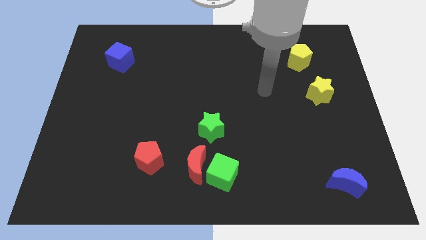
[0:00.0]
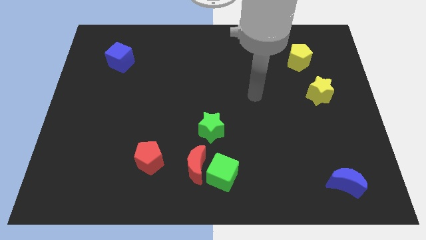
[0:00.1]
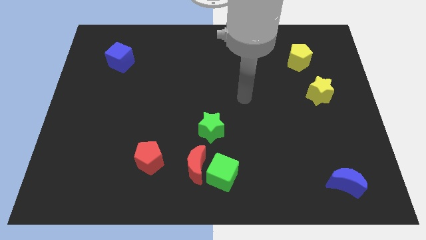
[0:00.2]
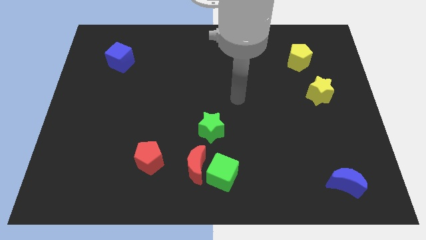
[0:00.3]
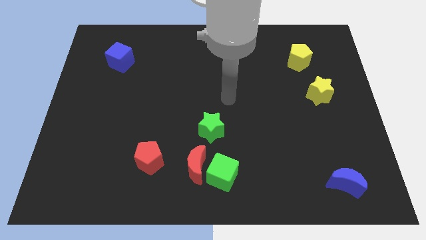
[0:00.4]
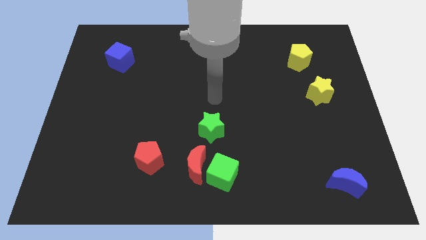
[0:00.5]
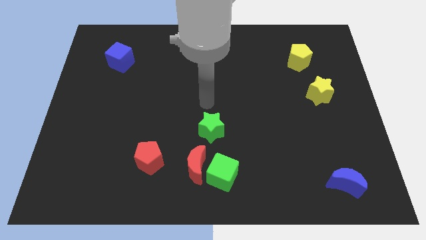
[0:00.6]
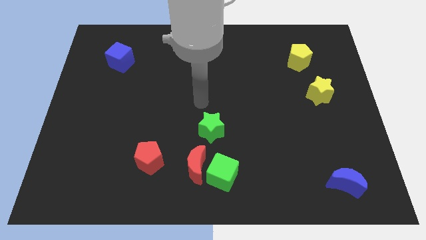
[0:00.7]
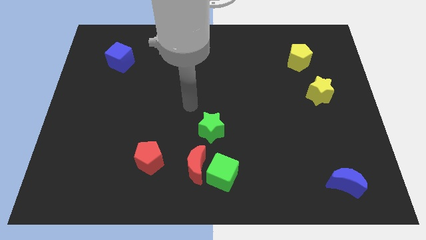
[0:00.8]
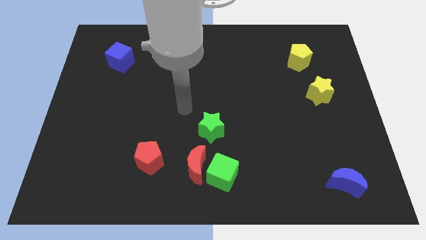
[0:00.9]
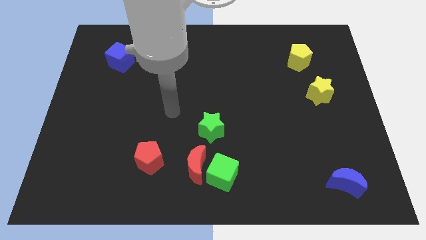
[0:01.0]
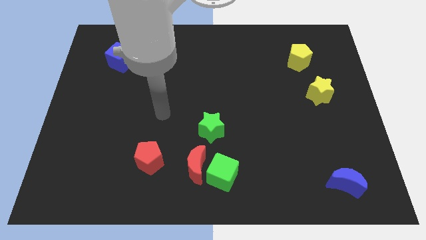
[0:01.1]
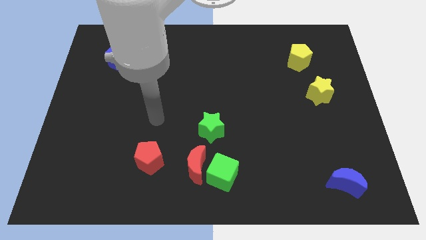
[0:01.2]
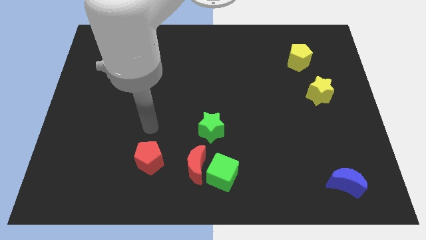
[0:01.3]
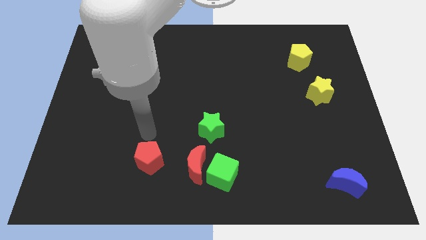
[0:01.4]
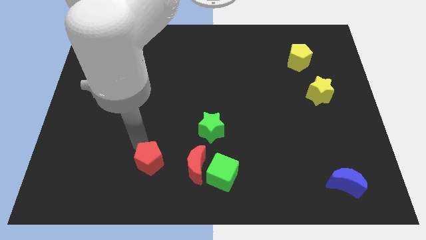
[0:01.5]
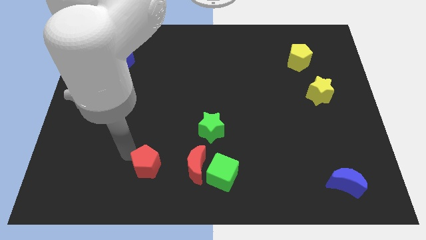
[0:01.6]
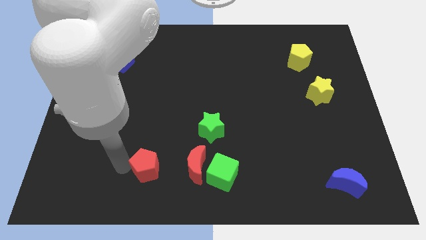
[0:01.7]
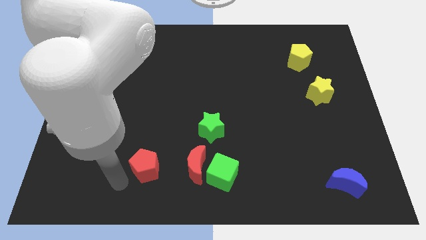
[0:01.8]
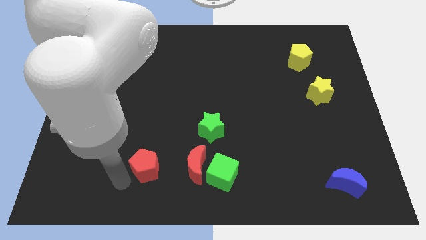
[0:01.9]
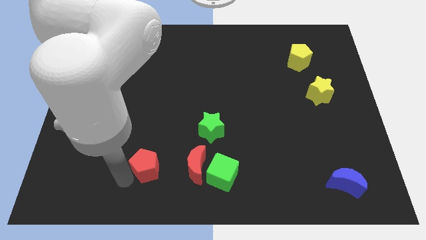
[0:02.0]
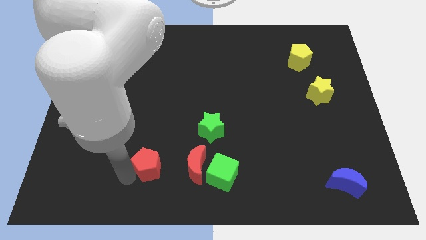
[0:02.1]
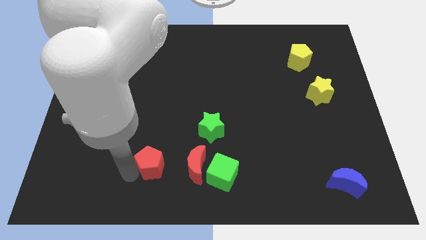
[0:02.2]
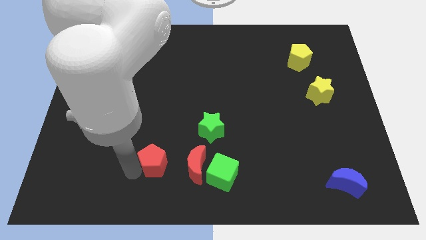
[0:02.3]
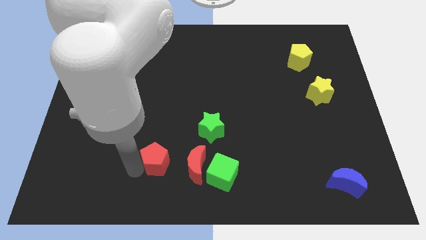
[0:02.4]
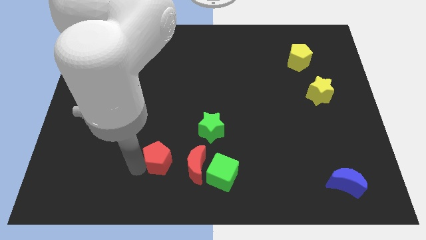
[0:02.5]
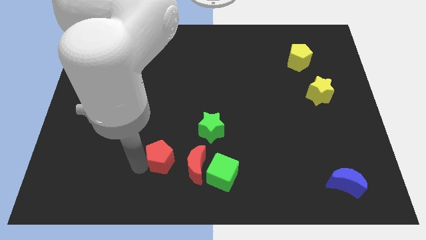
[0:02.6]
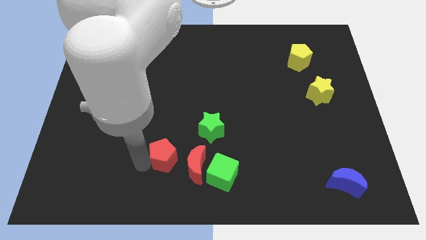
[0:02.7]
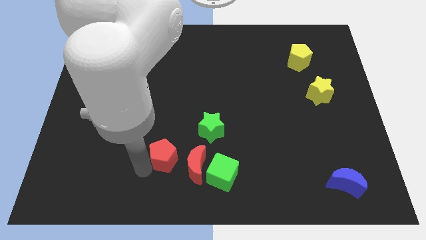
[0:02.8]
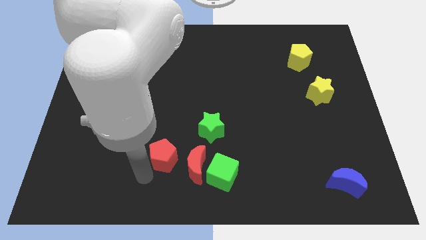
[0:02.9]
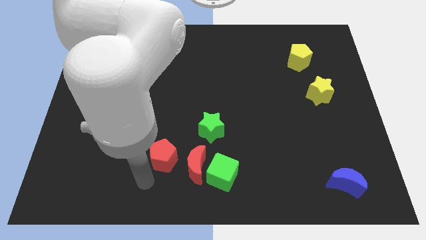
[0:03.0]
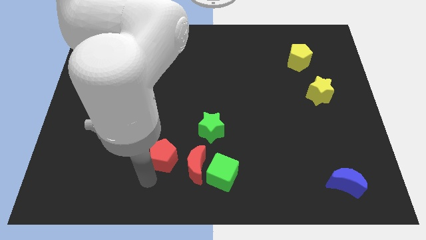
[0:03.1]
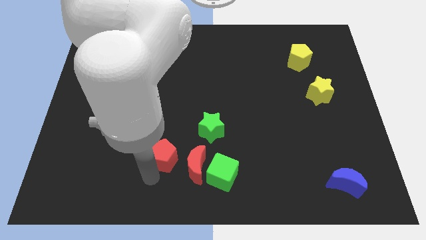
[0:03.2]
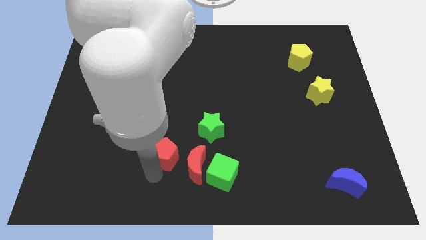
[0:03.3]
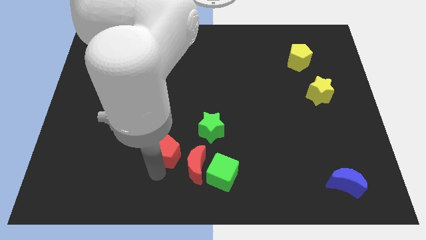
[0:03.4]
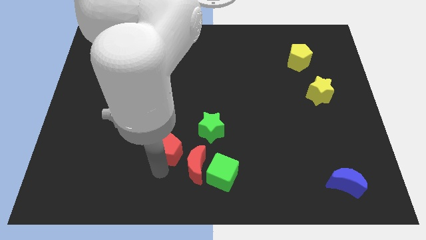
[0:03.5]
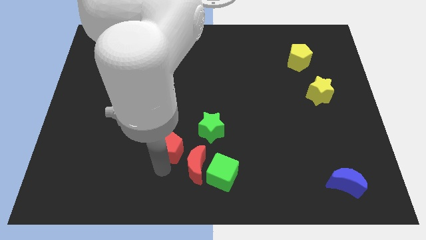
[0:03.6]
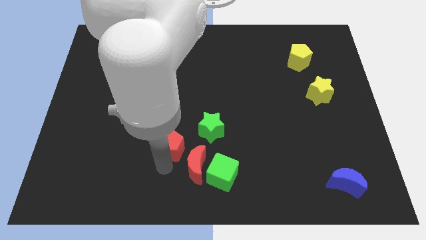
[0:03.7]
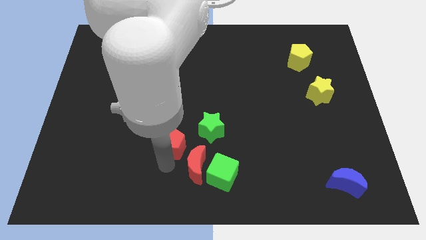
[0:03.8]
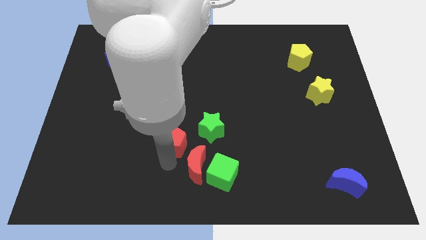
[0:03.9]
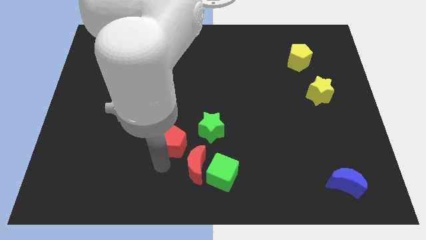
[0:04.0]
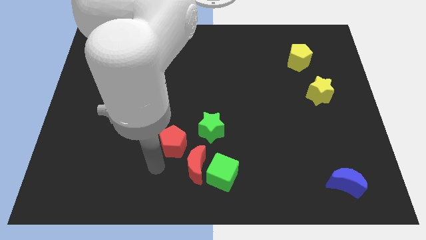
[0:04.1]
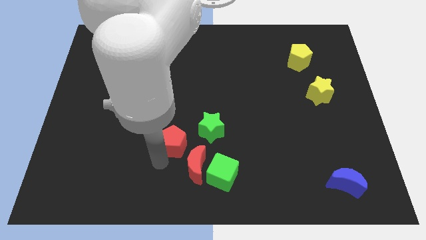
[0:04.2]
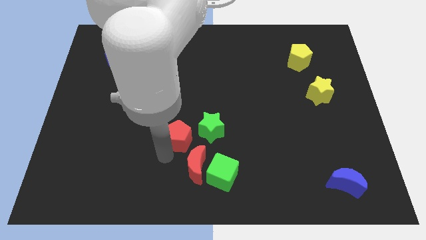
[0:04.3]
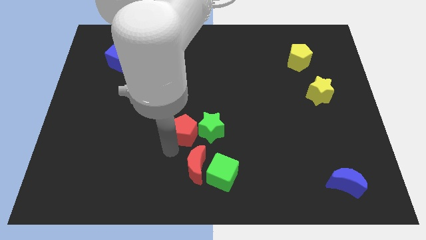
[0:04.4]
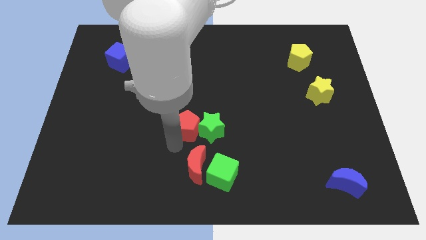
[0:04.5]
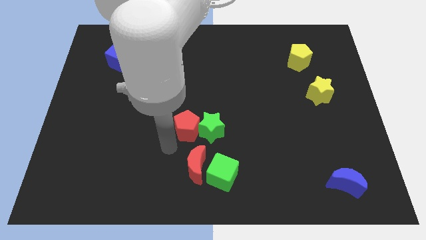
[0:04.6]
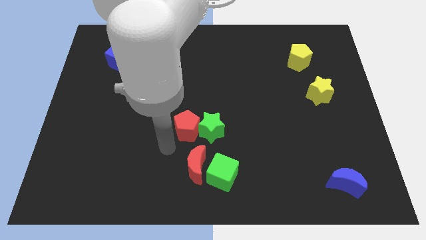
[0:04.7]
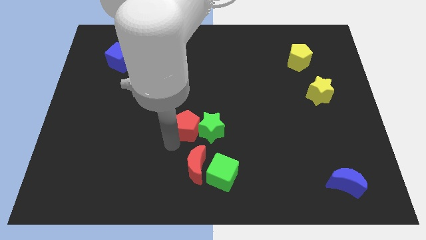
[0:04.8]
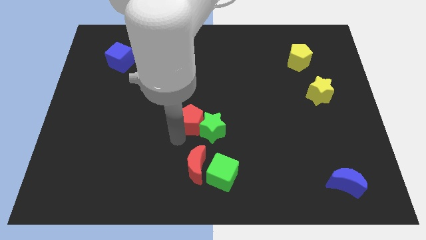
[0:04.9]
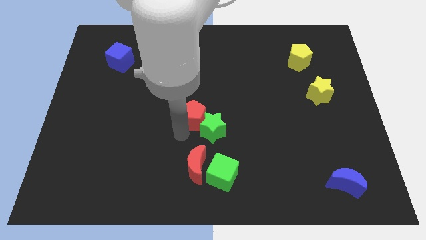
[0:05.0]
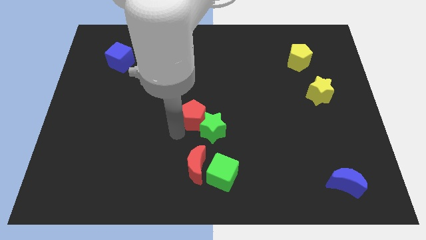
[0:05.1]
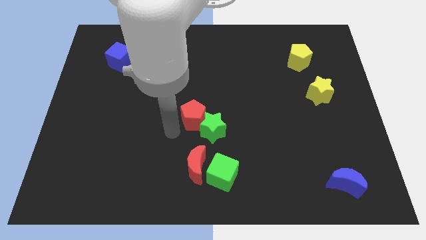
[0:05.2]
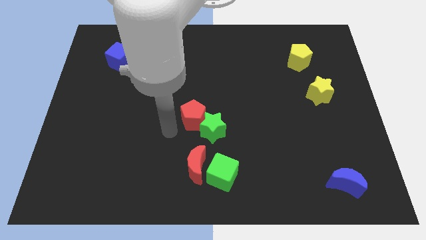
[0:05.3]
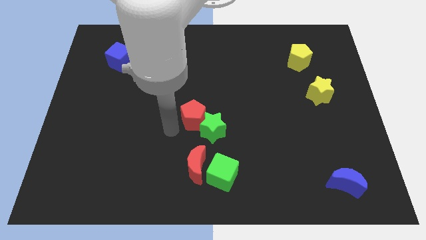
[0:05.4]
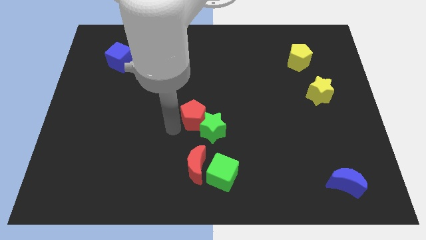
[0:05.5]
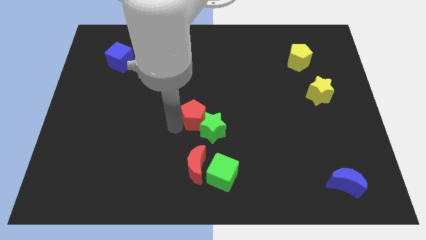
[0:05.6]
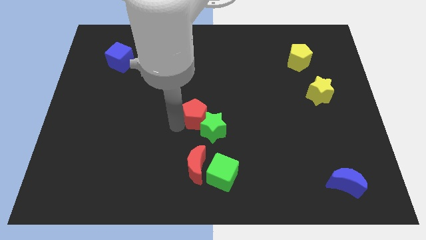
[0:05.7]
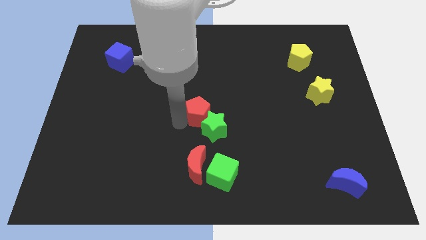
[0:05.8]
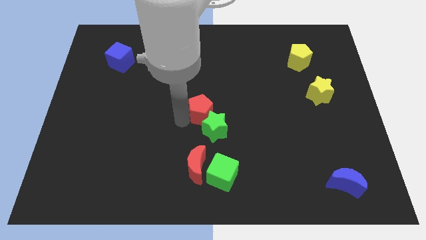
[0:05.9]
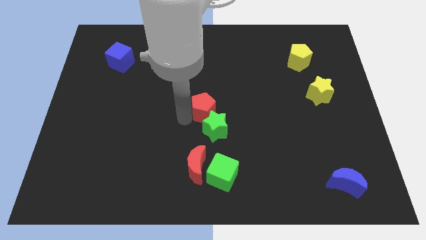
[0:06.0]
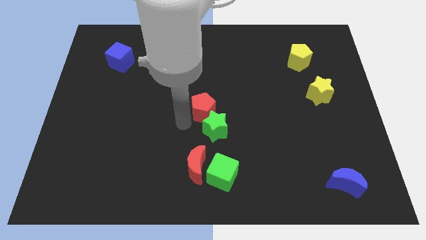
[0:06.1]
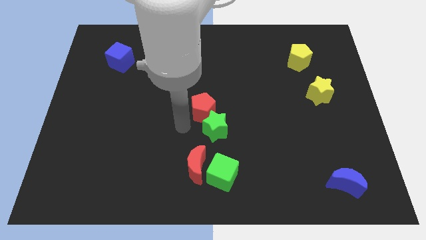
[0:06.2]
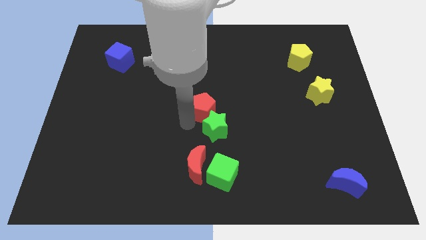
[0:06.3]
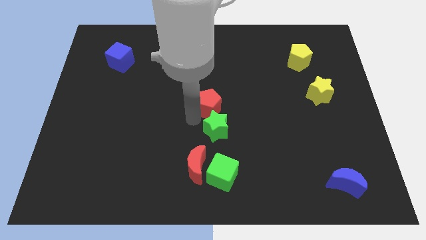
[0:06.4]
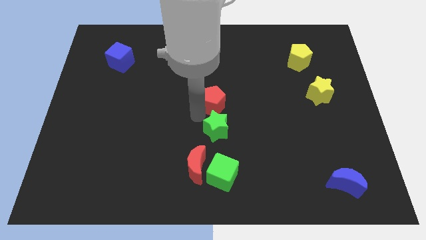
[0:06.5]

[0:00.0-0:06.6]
slide the red pentagon upwards and then right

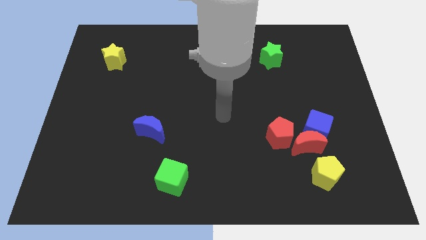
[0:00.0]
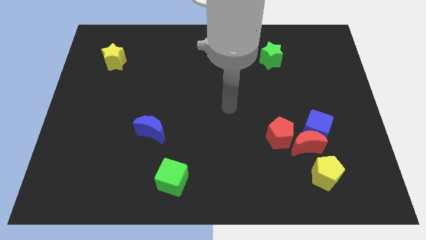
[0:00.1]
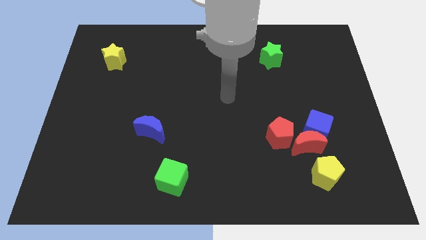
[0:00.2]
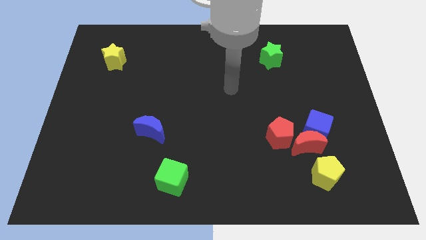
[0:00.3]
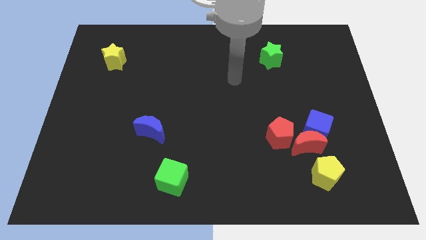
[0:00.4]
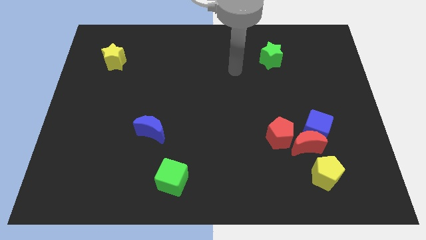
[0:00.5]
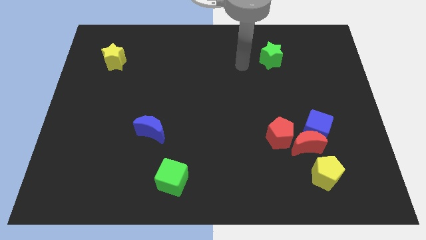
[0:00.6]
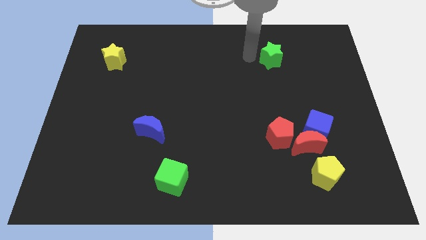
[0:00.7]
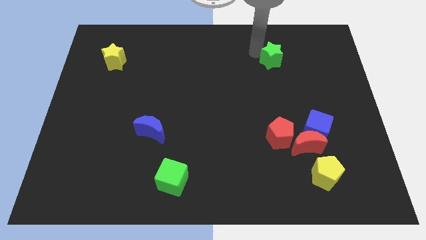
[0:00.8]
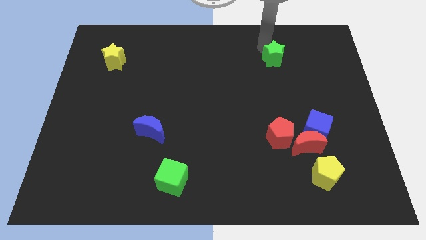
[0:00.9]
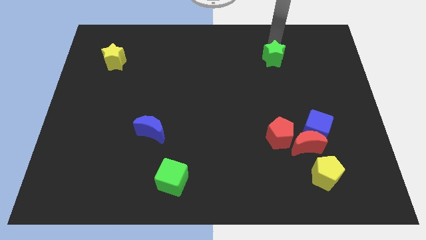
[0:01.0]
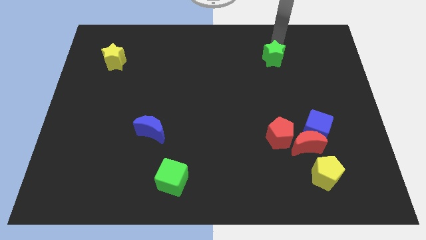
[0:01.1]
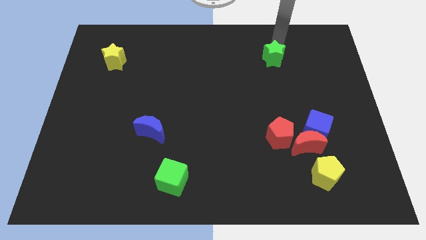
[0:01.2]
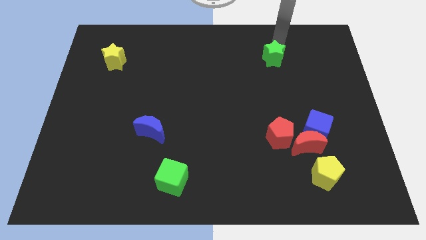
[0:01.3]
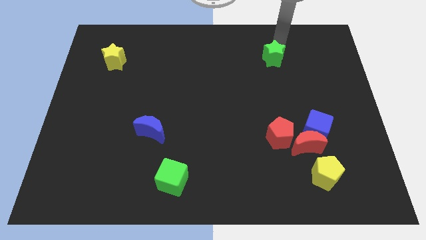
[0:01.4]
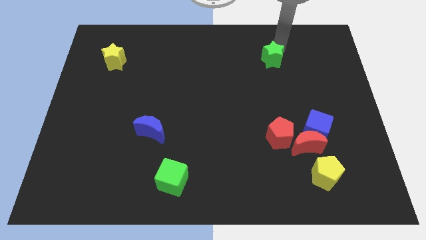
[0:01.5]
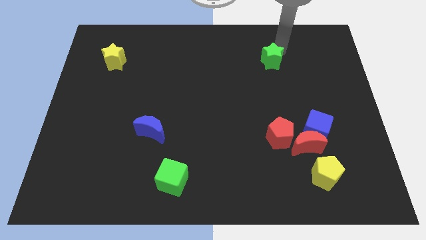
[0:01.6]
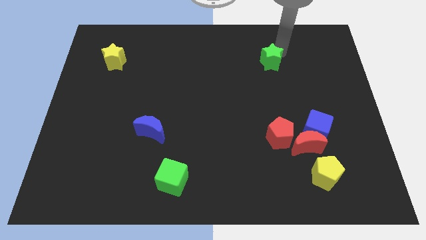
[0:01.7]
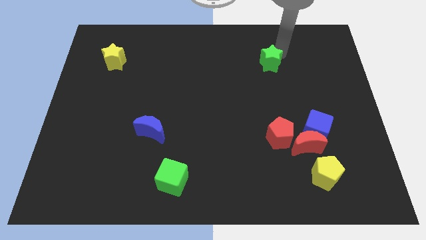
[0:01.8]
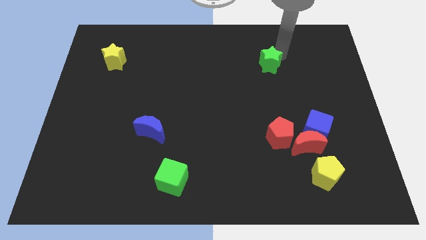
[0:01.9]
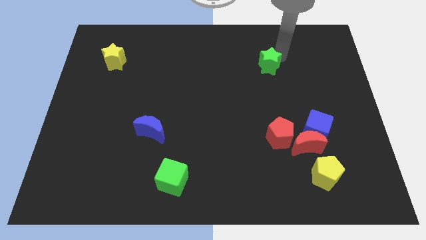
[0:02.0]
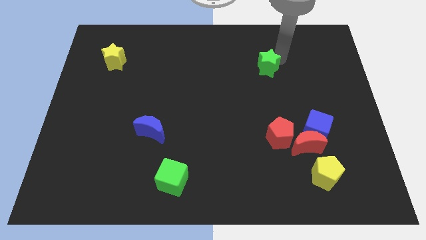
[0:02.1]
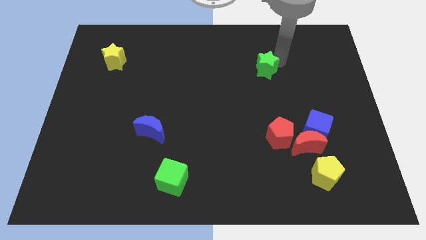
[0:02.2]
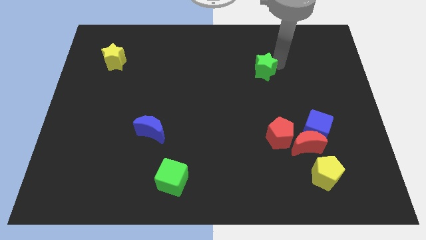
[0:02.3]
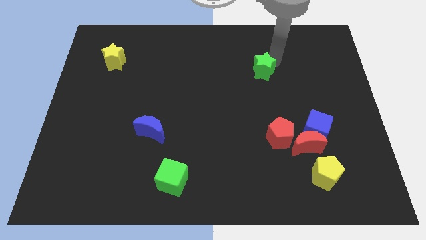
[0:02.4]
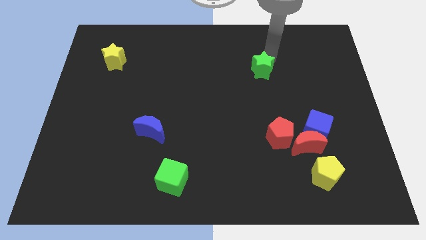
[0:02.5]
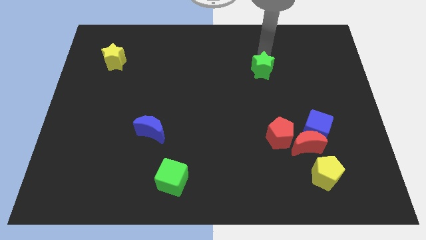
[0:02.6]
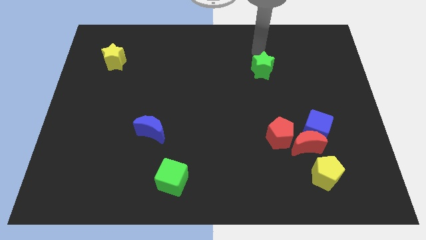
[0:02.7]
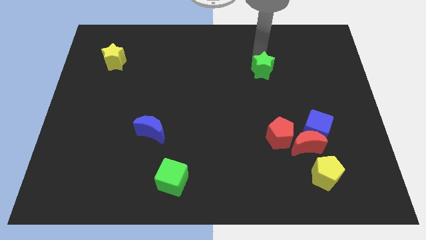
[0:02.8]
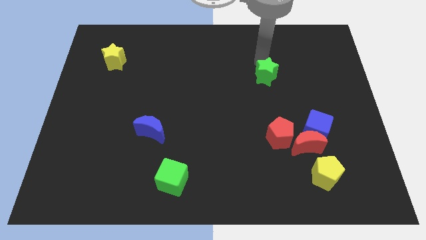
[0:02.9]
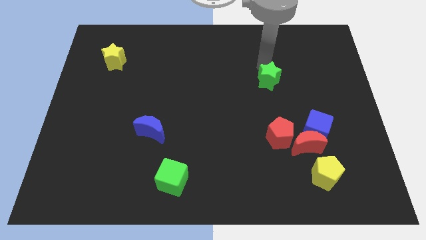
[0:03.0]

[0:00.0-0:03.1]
push the green star somewhat down
